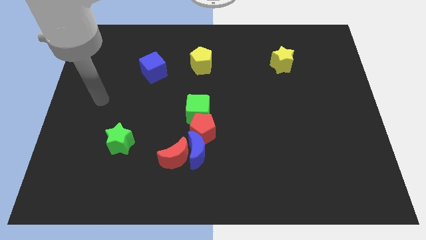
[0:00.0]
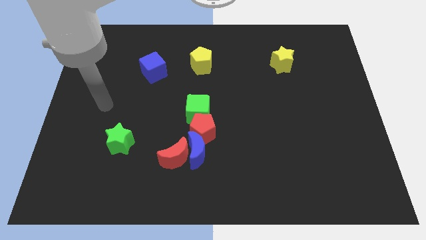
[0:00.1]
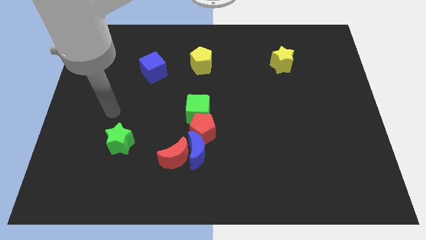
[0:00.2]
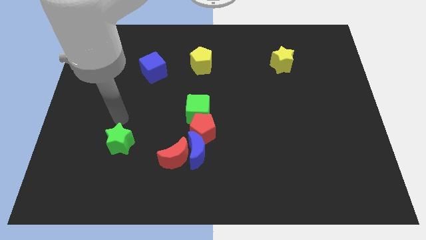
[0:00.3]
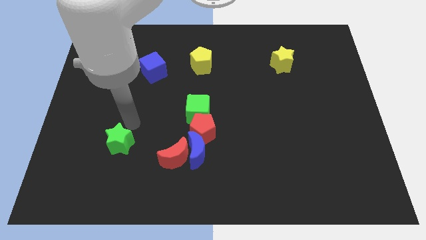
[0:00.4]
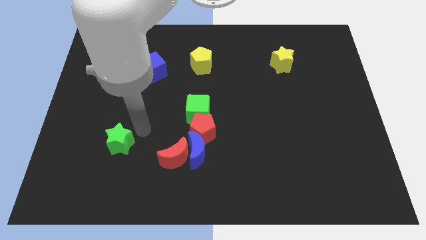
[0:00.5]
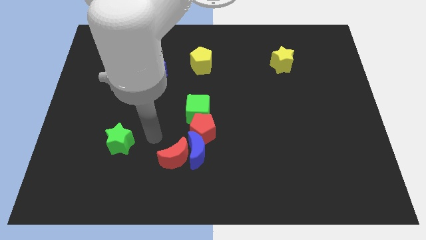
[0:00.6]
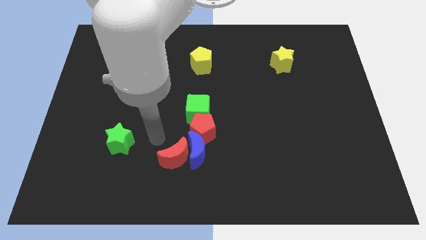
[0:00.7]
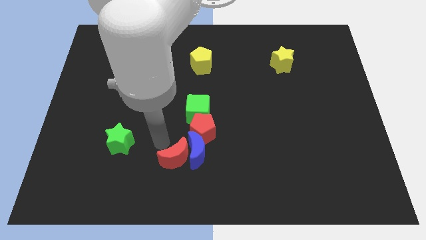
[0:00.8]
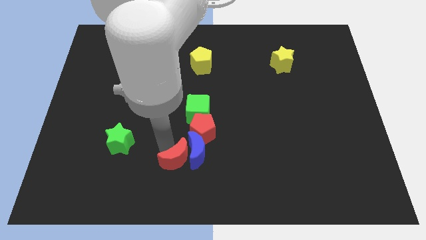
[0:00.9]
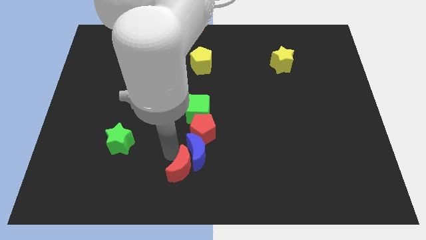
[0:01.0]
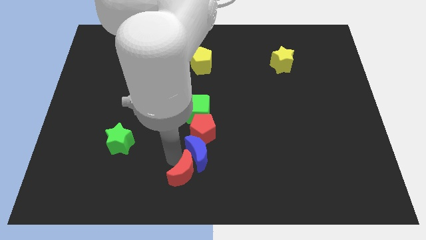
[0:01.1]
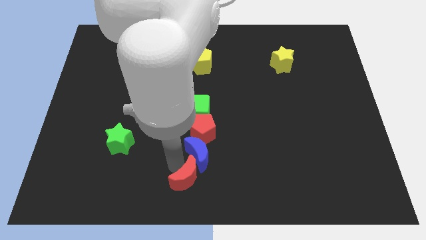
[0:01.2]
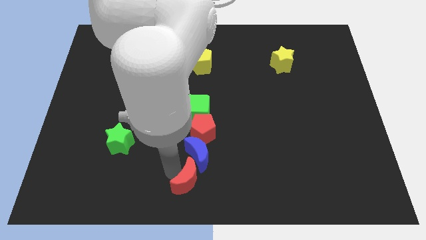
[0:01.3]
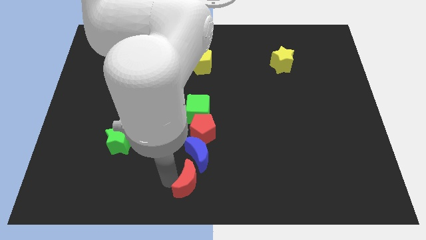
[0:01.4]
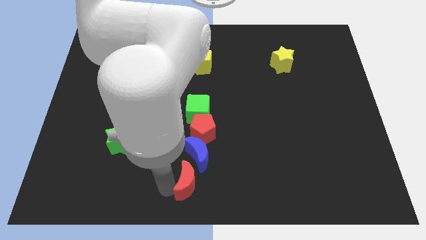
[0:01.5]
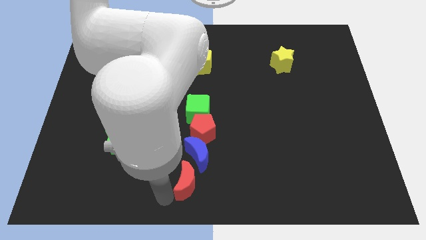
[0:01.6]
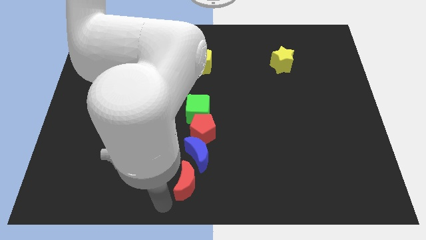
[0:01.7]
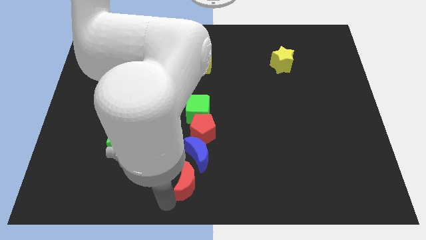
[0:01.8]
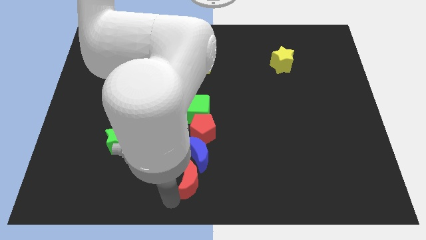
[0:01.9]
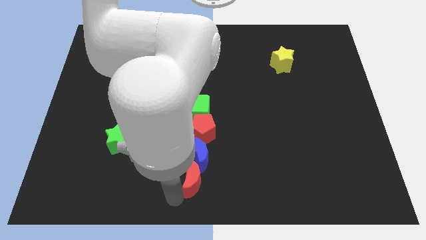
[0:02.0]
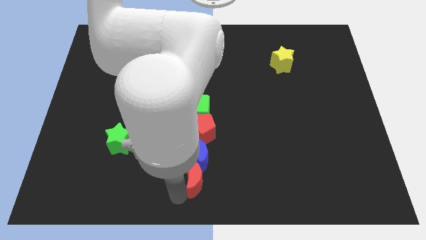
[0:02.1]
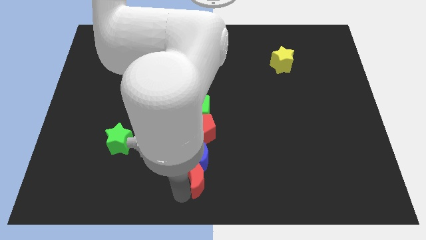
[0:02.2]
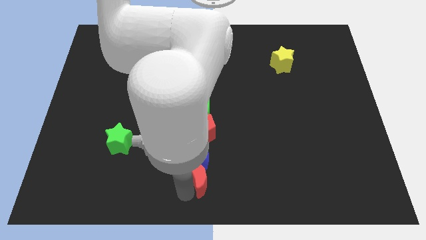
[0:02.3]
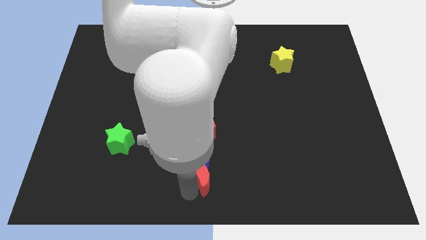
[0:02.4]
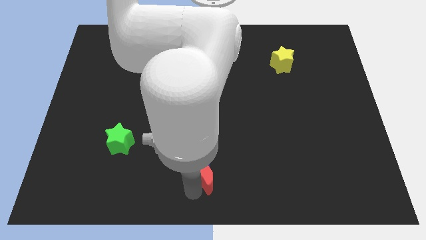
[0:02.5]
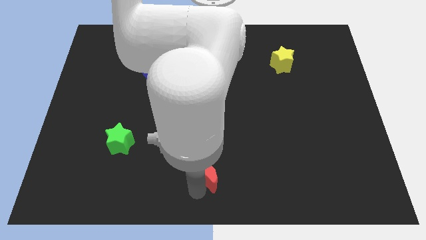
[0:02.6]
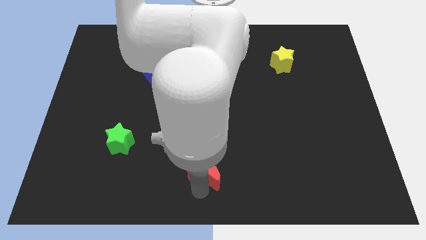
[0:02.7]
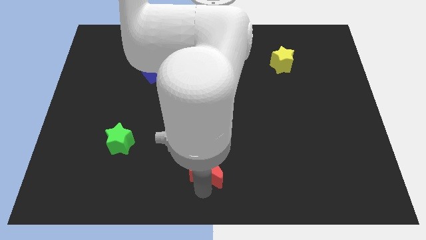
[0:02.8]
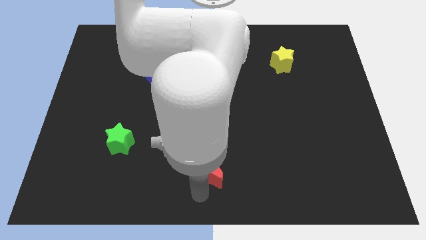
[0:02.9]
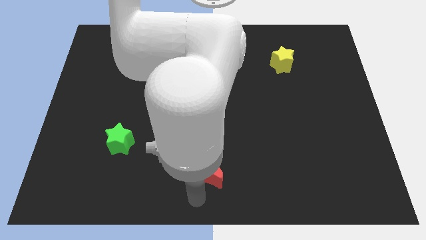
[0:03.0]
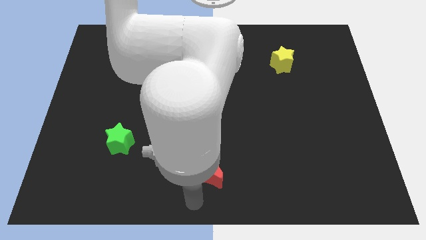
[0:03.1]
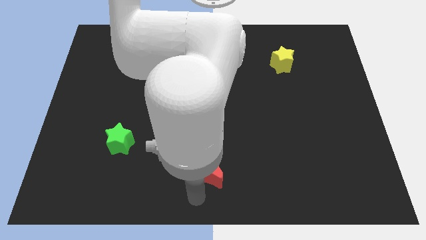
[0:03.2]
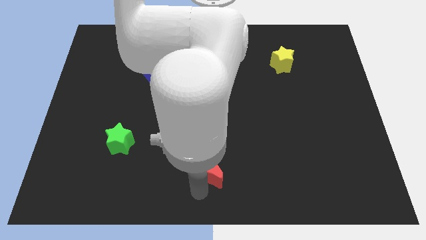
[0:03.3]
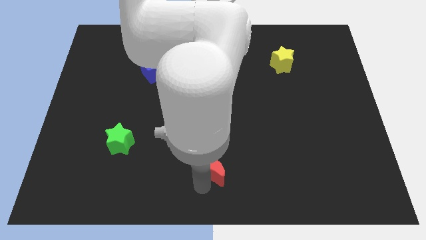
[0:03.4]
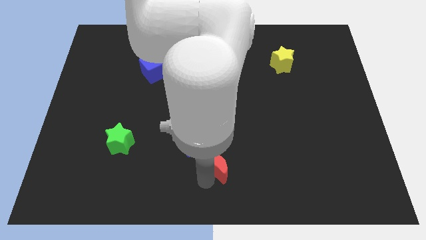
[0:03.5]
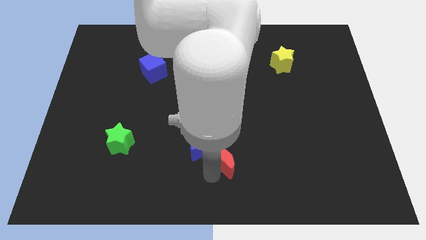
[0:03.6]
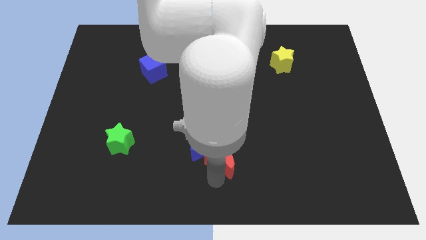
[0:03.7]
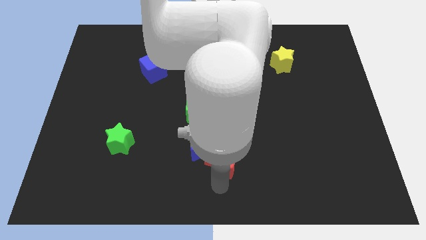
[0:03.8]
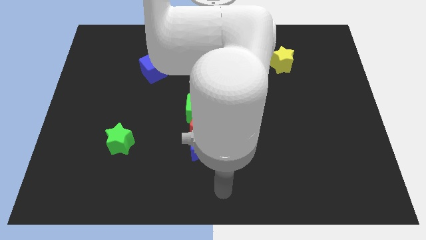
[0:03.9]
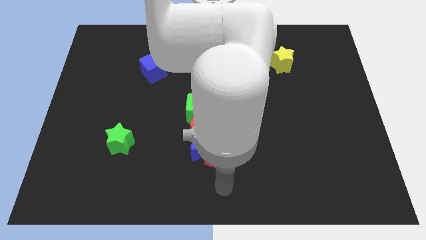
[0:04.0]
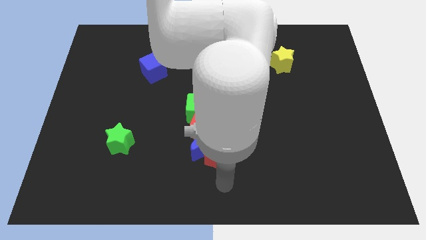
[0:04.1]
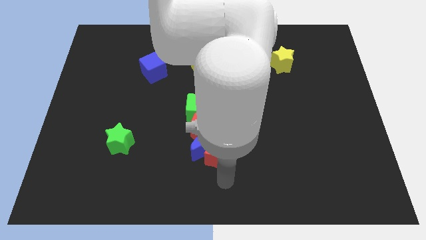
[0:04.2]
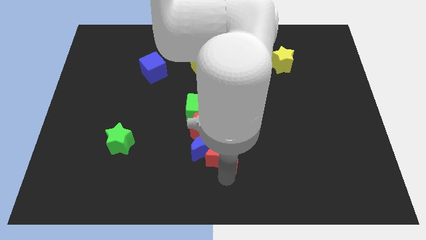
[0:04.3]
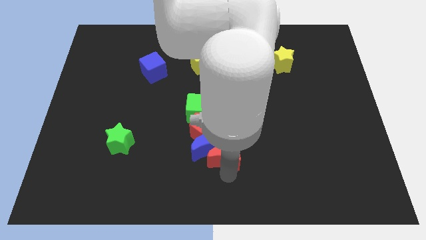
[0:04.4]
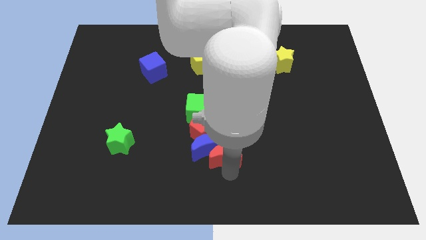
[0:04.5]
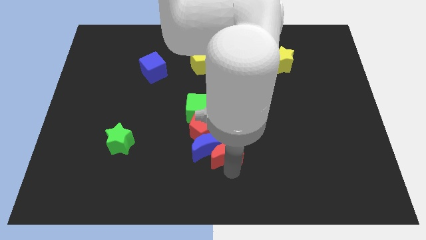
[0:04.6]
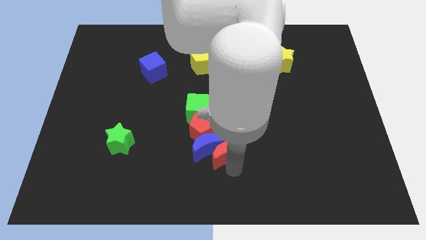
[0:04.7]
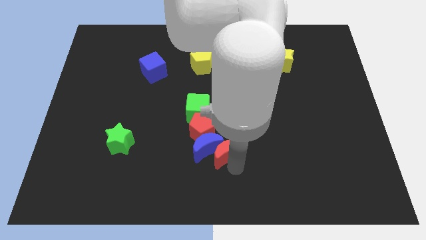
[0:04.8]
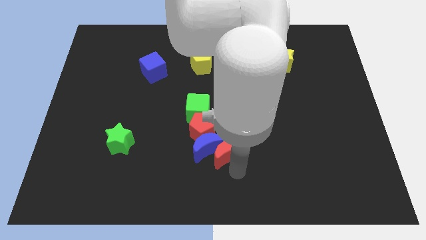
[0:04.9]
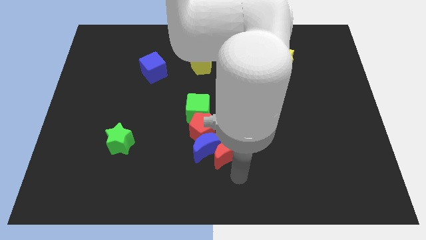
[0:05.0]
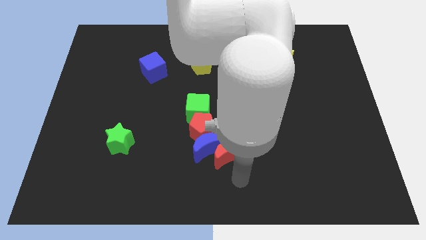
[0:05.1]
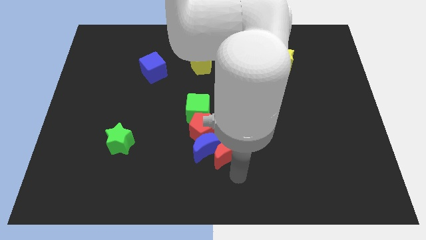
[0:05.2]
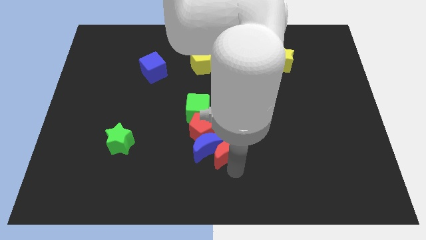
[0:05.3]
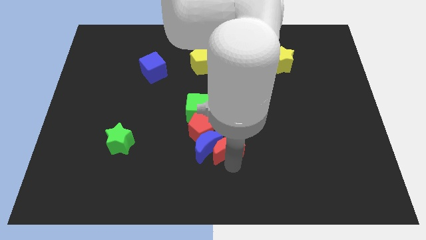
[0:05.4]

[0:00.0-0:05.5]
slightly slide the red moon upwards and then right

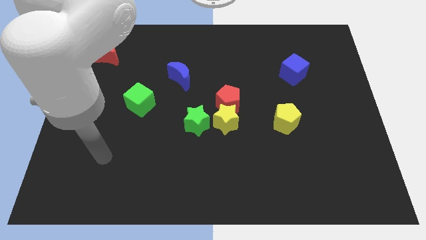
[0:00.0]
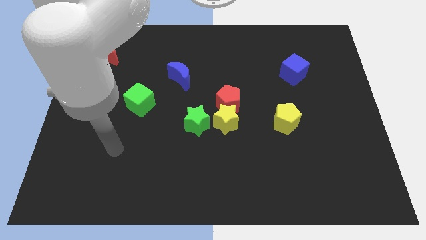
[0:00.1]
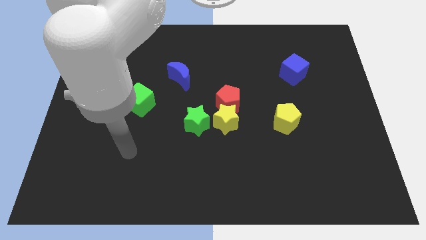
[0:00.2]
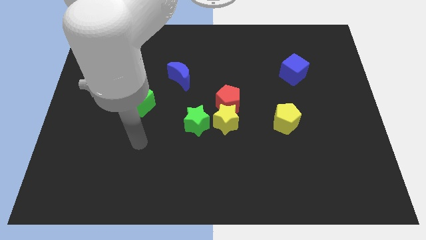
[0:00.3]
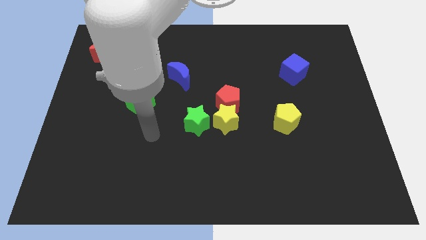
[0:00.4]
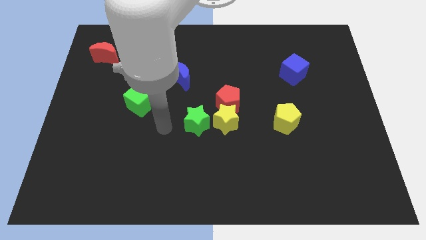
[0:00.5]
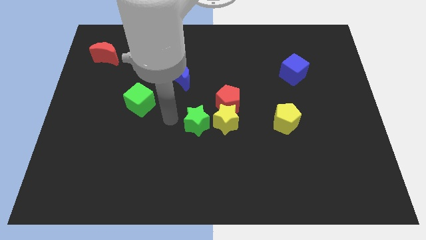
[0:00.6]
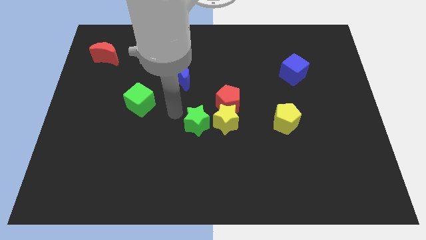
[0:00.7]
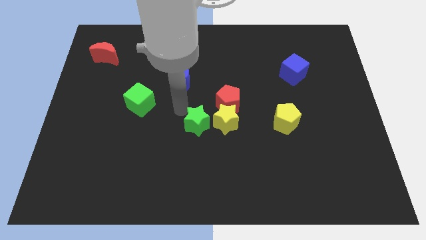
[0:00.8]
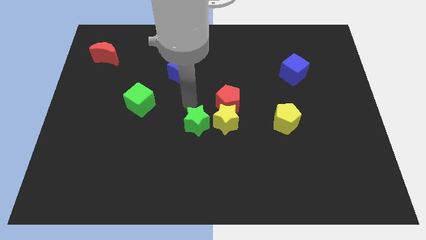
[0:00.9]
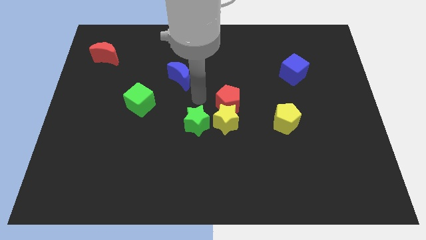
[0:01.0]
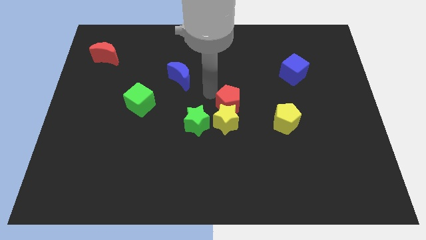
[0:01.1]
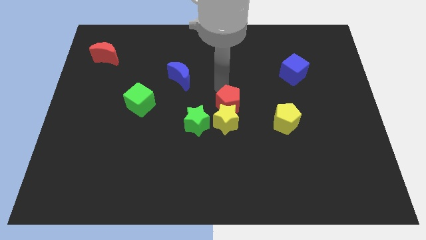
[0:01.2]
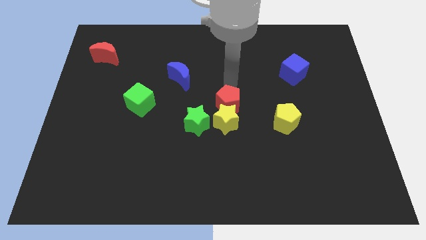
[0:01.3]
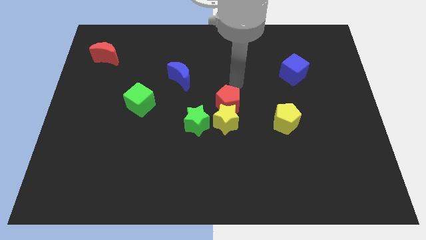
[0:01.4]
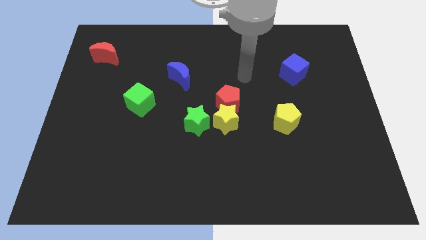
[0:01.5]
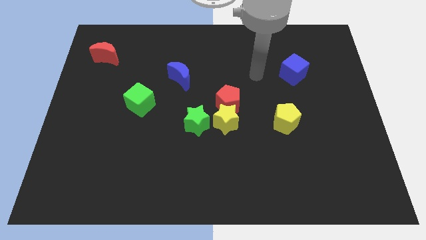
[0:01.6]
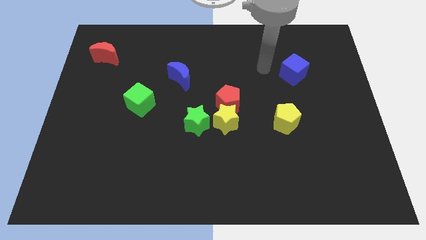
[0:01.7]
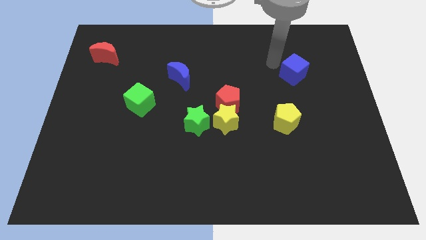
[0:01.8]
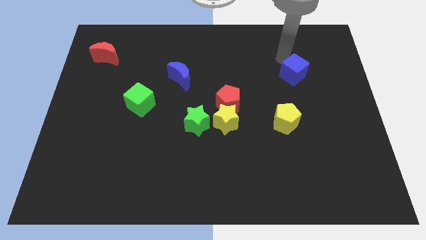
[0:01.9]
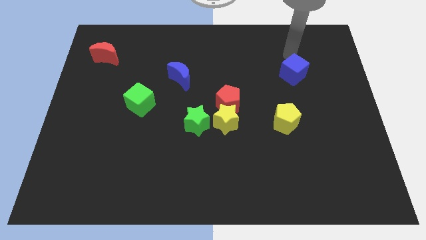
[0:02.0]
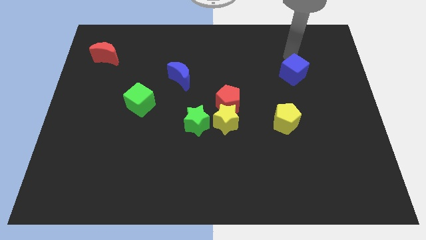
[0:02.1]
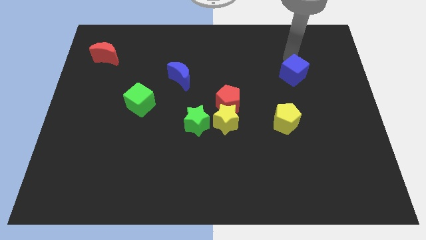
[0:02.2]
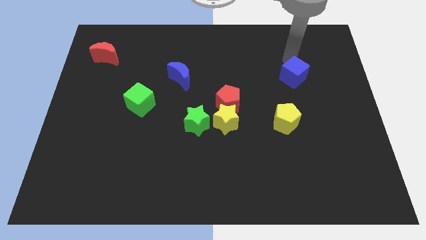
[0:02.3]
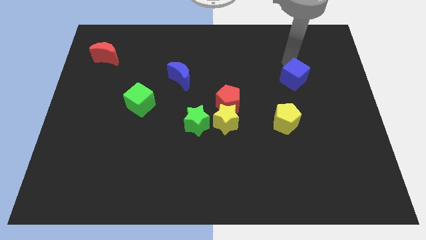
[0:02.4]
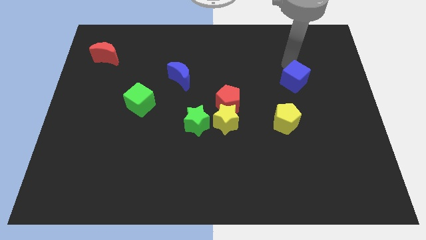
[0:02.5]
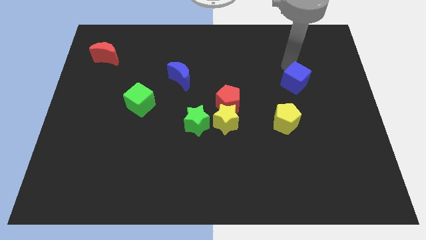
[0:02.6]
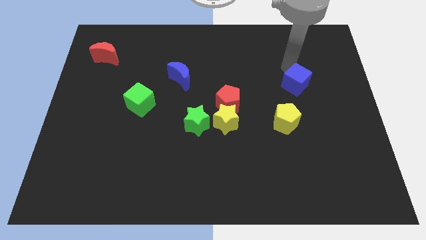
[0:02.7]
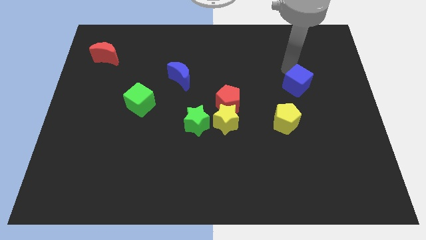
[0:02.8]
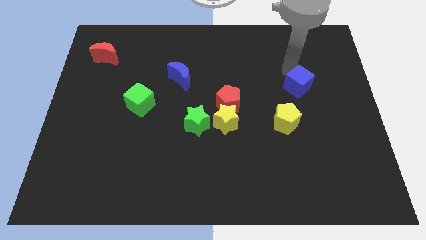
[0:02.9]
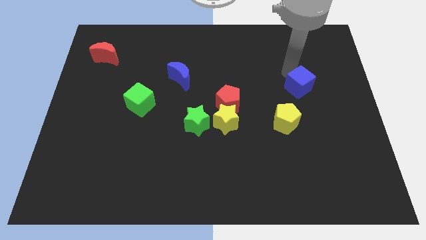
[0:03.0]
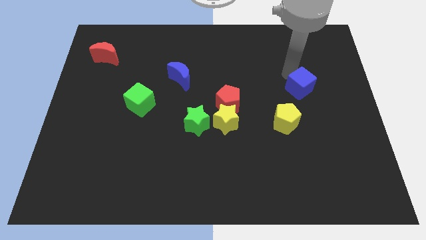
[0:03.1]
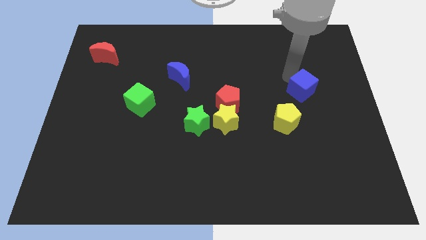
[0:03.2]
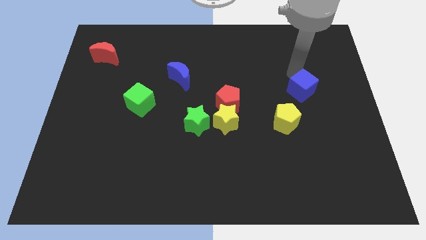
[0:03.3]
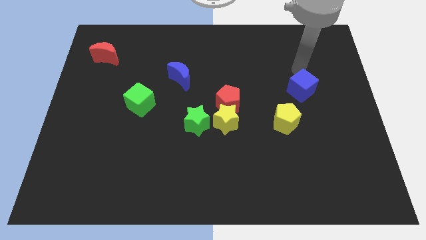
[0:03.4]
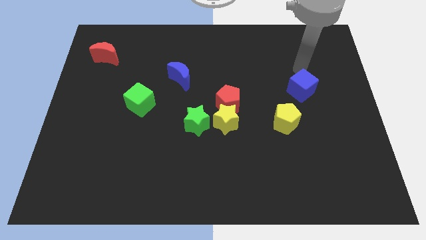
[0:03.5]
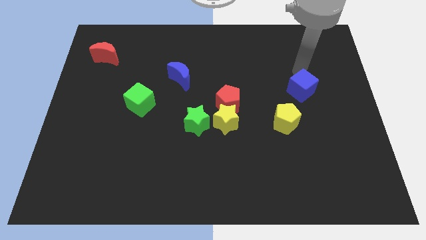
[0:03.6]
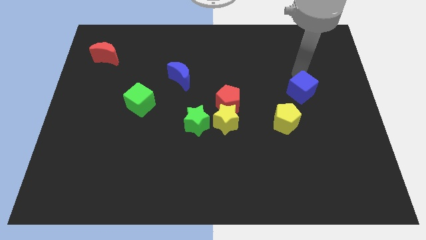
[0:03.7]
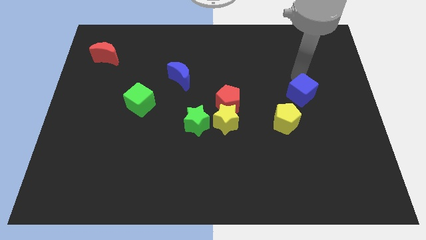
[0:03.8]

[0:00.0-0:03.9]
move the blue cube a bit down
